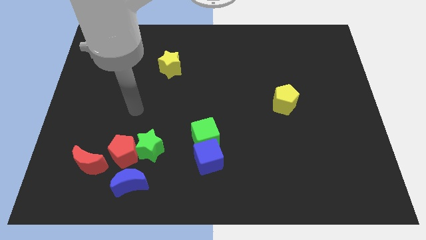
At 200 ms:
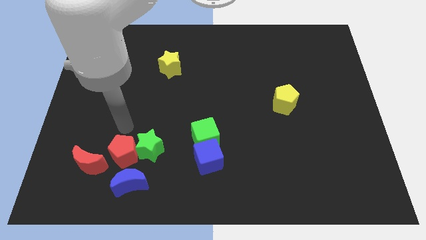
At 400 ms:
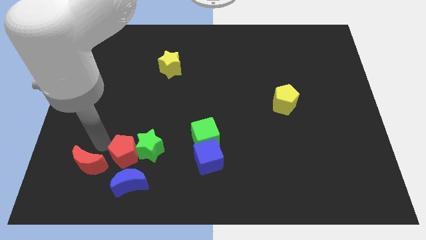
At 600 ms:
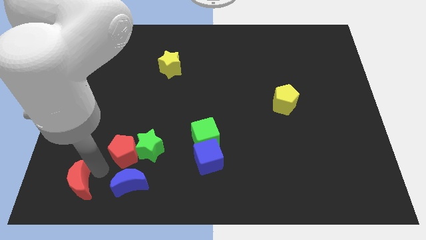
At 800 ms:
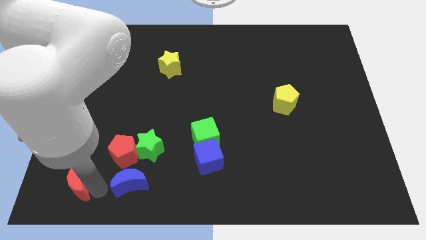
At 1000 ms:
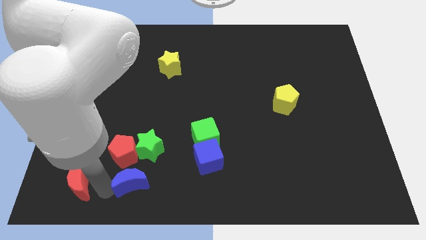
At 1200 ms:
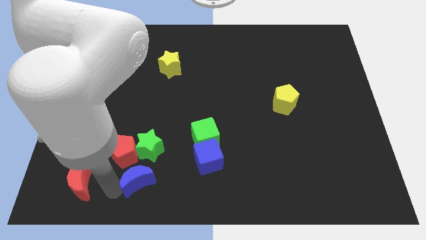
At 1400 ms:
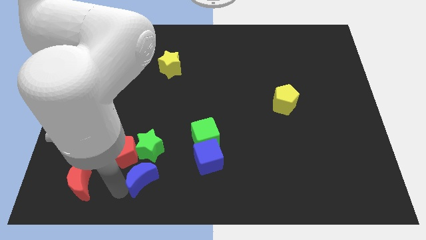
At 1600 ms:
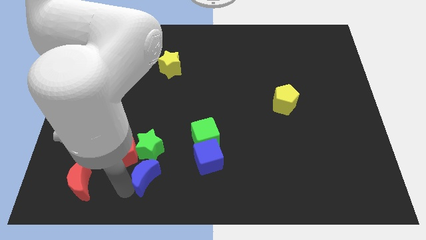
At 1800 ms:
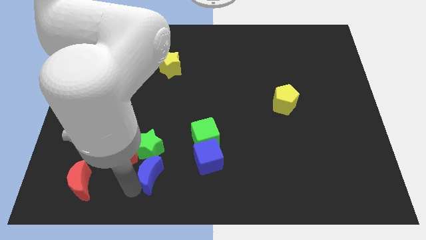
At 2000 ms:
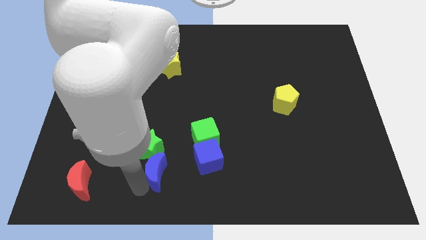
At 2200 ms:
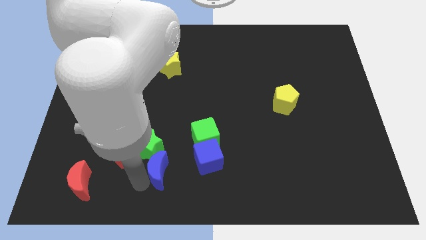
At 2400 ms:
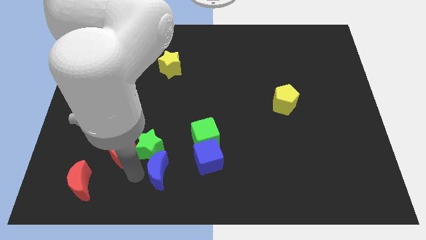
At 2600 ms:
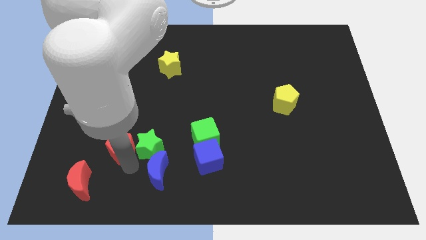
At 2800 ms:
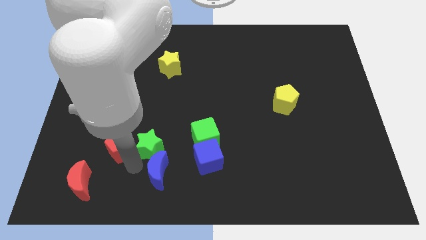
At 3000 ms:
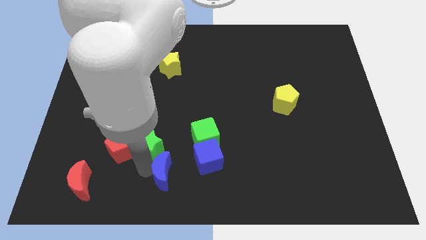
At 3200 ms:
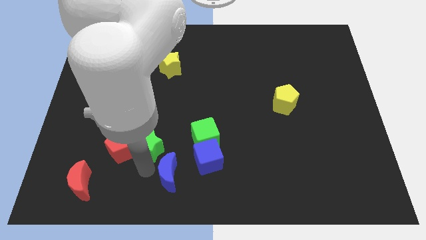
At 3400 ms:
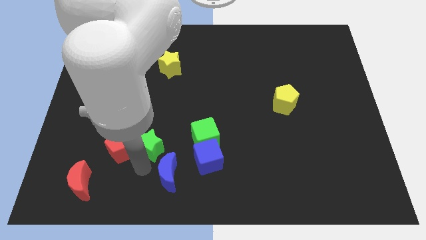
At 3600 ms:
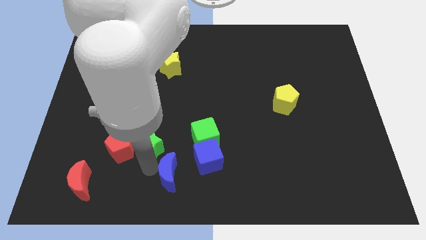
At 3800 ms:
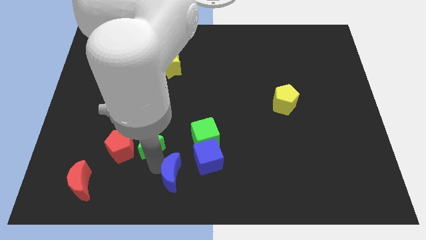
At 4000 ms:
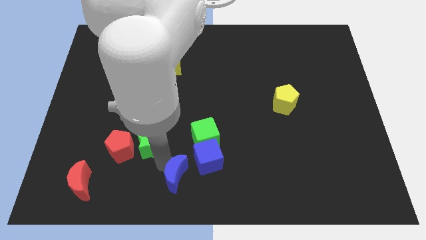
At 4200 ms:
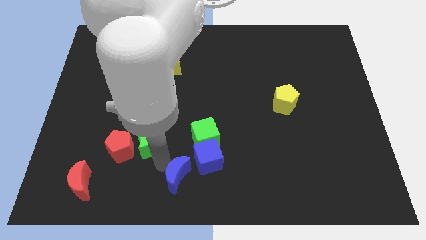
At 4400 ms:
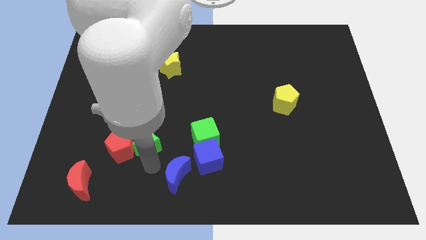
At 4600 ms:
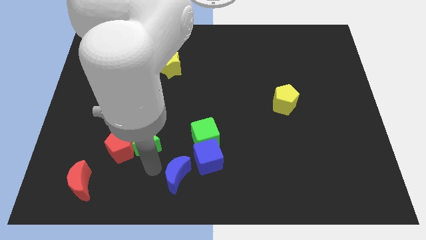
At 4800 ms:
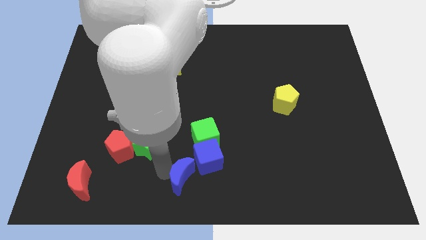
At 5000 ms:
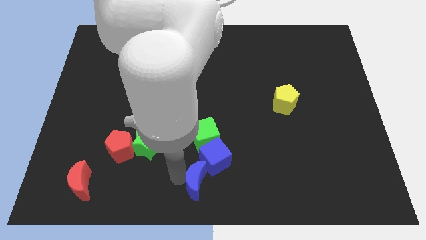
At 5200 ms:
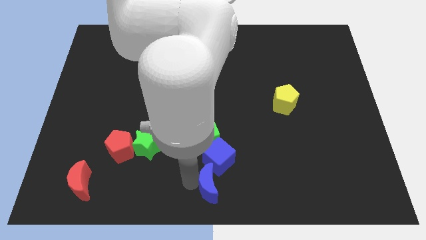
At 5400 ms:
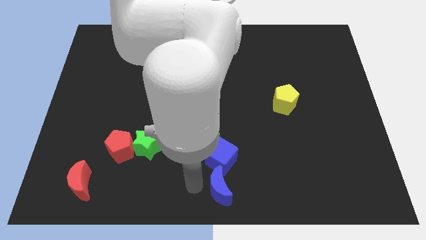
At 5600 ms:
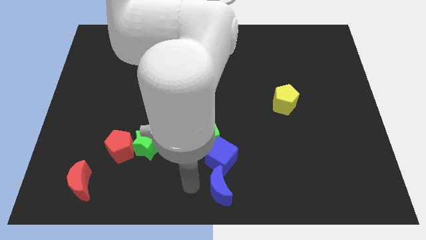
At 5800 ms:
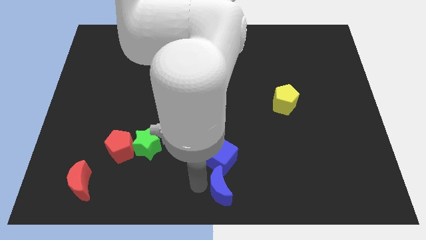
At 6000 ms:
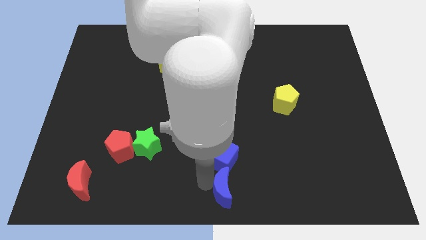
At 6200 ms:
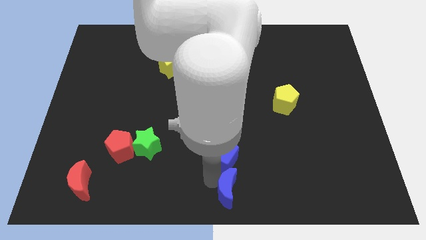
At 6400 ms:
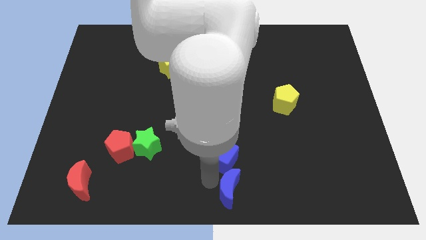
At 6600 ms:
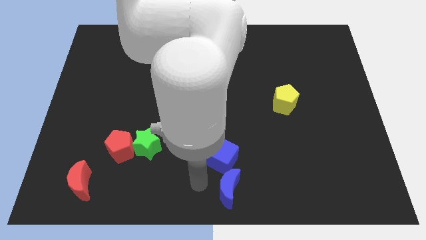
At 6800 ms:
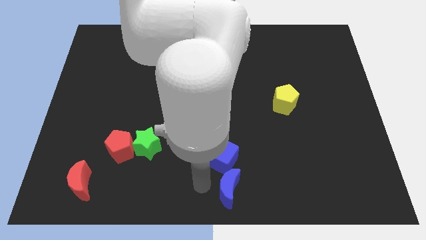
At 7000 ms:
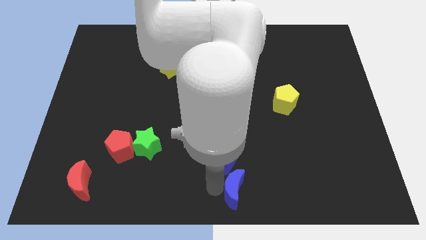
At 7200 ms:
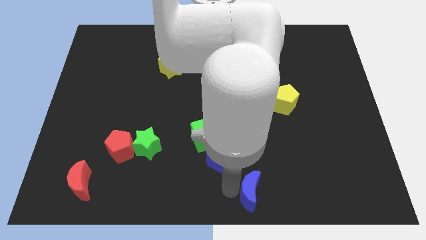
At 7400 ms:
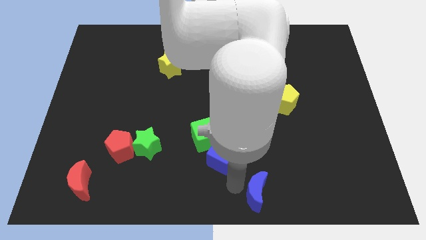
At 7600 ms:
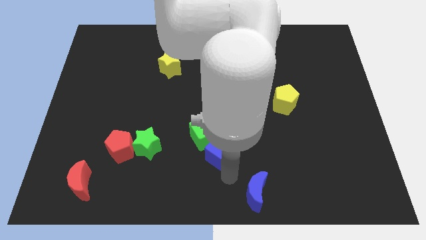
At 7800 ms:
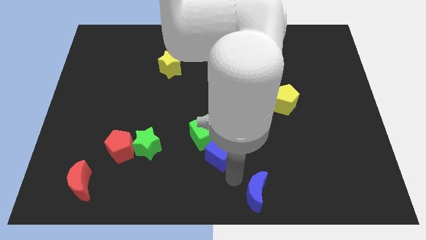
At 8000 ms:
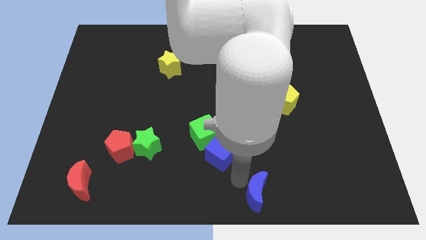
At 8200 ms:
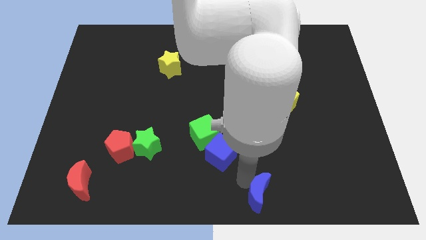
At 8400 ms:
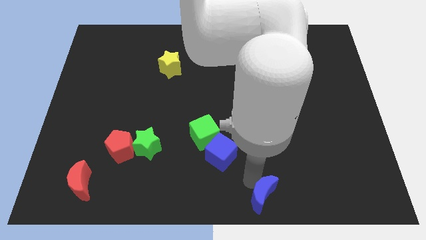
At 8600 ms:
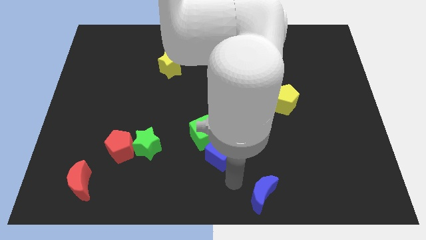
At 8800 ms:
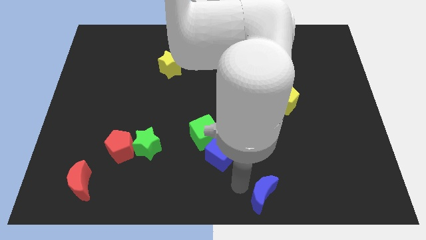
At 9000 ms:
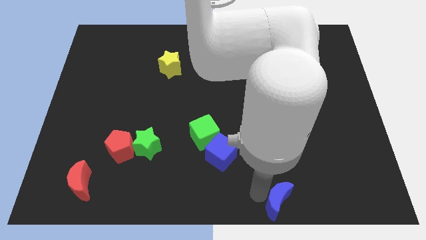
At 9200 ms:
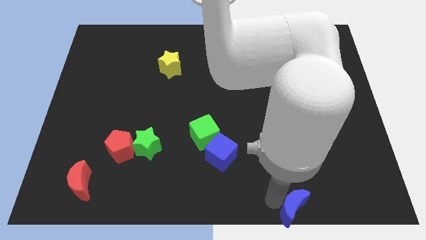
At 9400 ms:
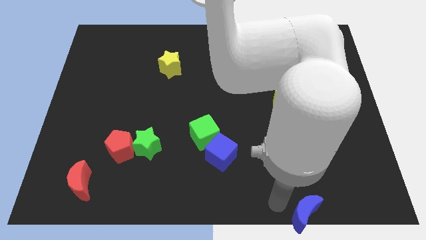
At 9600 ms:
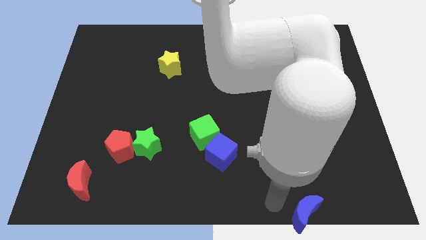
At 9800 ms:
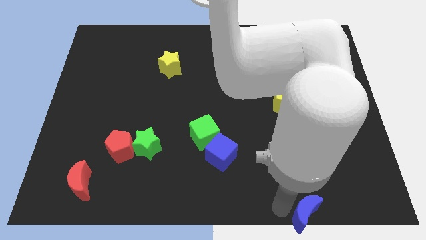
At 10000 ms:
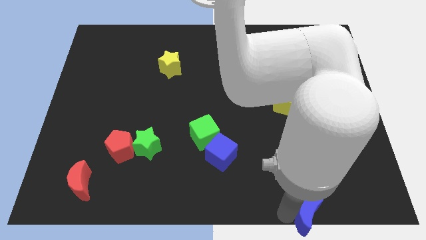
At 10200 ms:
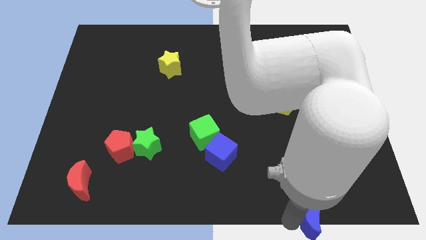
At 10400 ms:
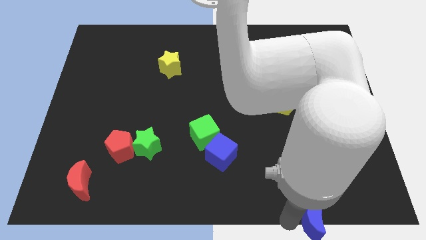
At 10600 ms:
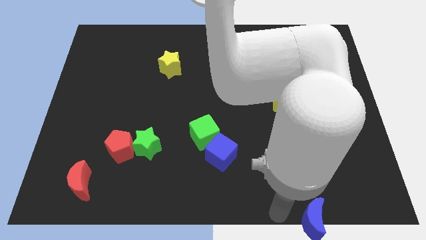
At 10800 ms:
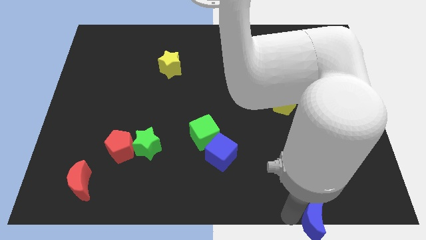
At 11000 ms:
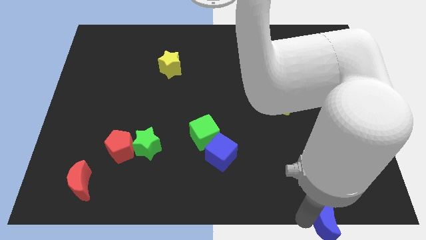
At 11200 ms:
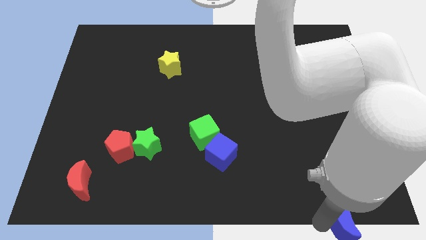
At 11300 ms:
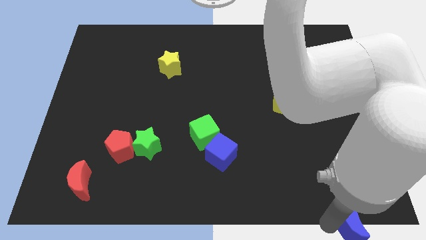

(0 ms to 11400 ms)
slide the blue moon to the lower right corner
